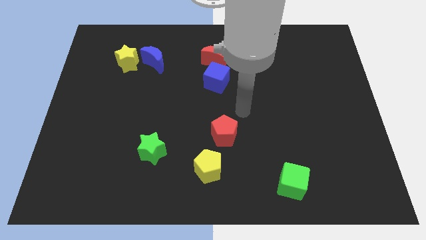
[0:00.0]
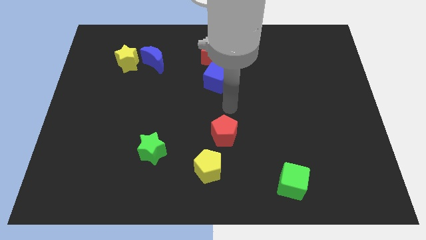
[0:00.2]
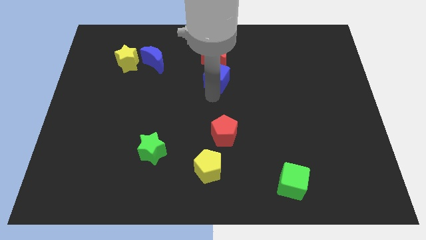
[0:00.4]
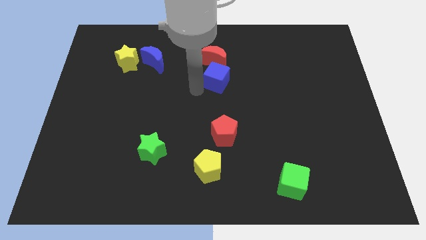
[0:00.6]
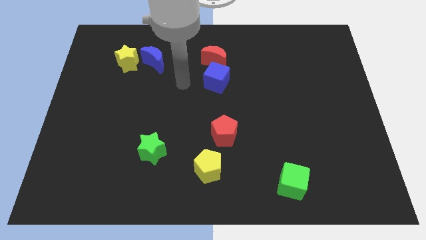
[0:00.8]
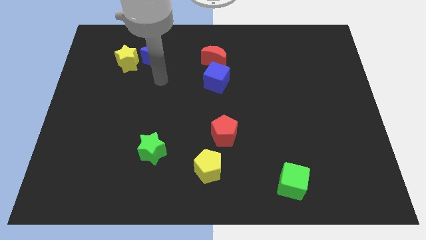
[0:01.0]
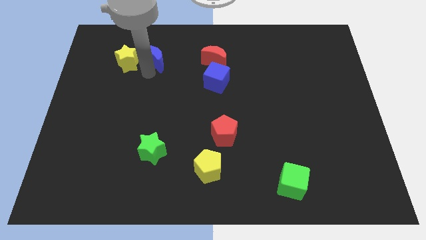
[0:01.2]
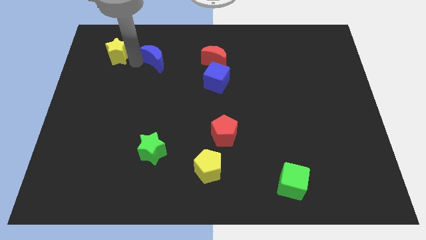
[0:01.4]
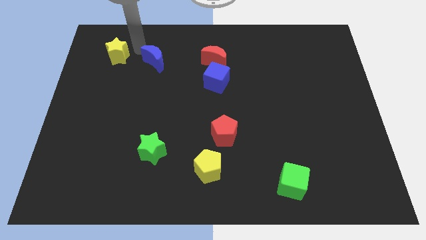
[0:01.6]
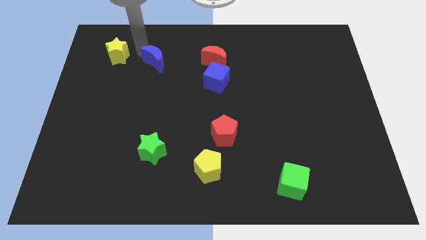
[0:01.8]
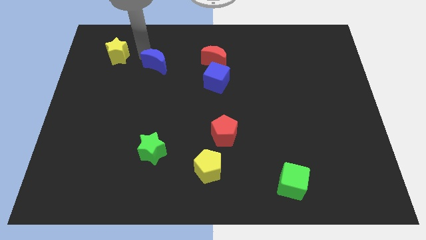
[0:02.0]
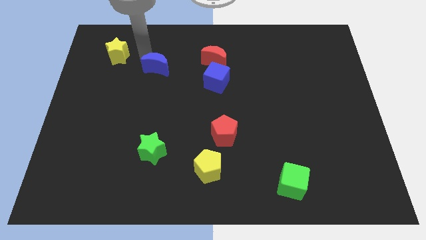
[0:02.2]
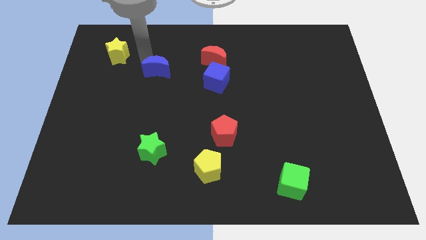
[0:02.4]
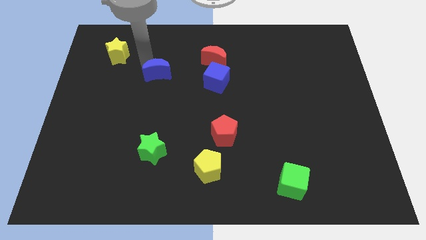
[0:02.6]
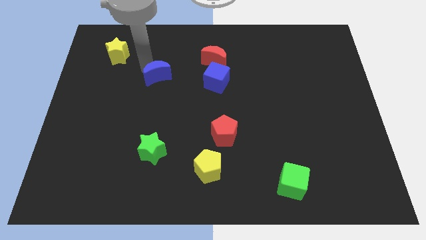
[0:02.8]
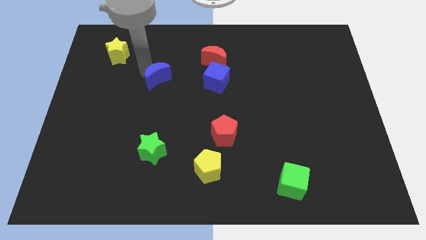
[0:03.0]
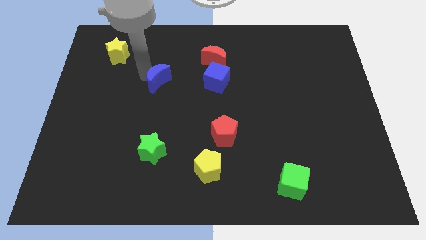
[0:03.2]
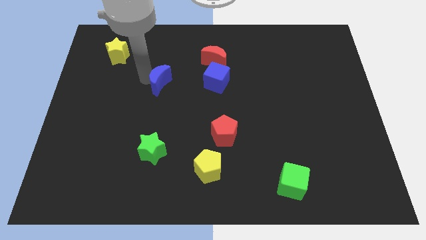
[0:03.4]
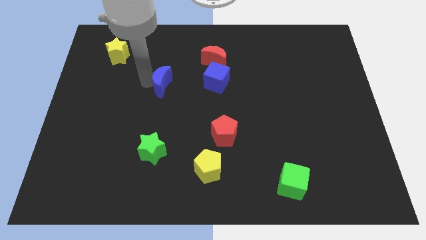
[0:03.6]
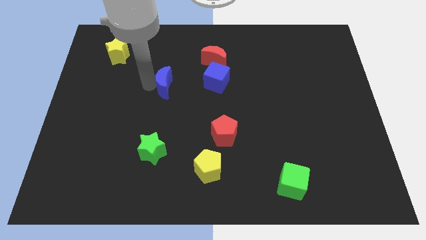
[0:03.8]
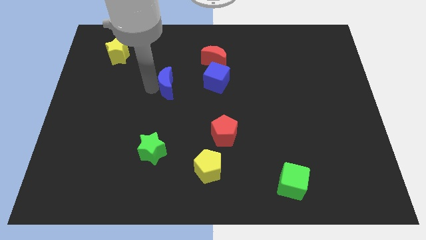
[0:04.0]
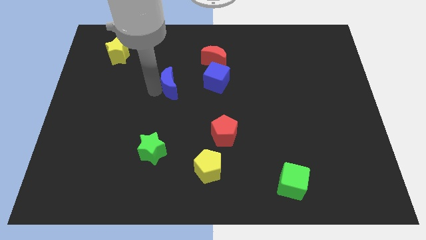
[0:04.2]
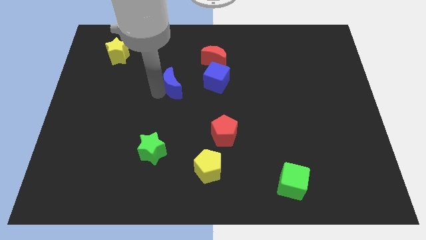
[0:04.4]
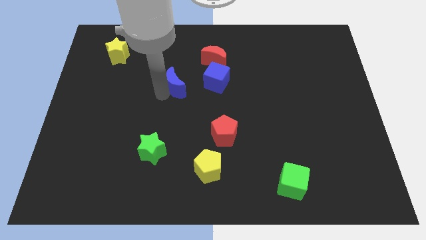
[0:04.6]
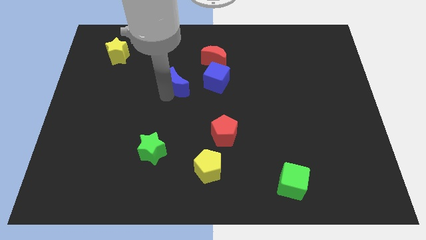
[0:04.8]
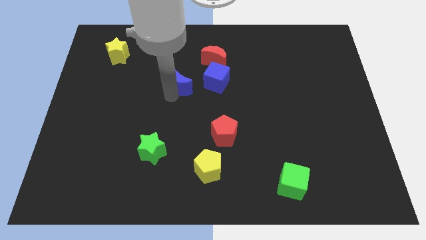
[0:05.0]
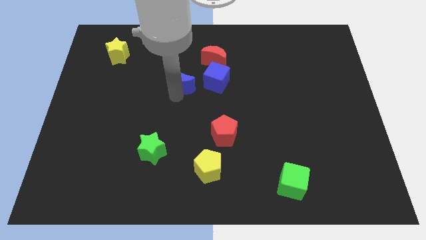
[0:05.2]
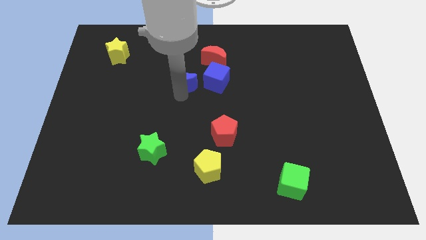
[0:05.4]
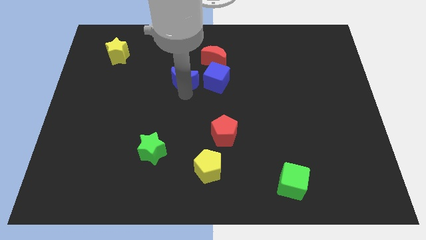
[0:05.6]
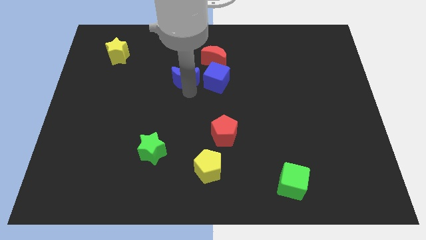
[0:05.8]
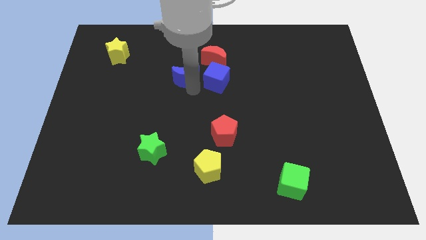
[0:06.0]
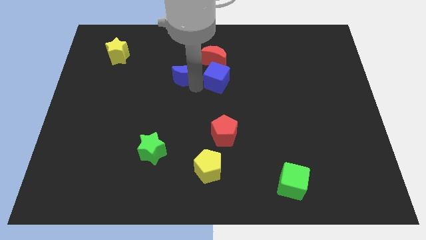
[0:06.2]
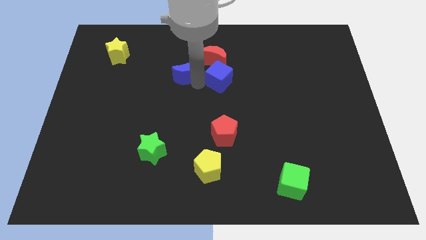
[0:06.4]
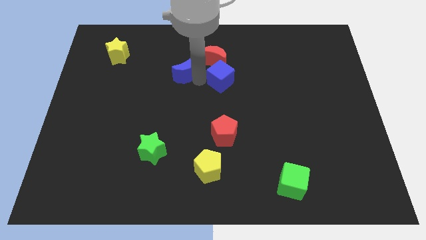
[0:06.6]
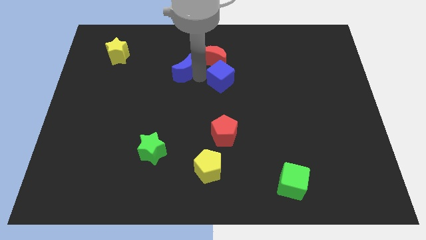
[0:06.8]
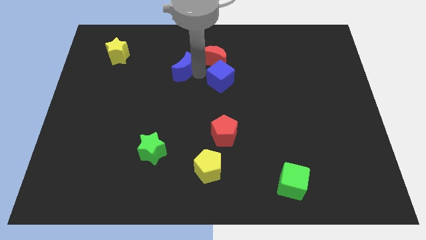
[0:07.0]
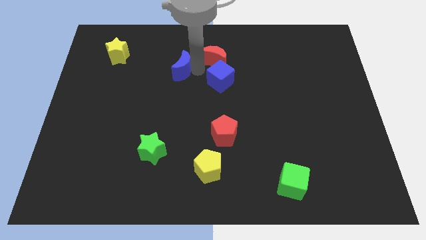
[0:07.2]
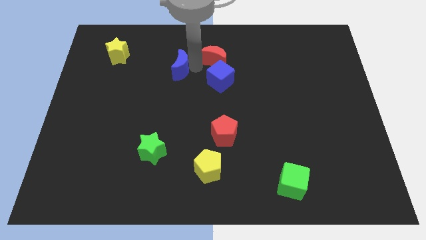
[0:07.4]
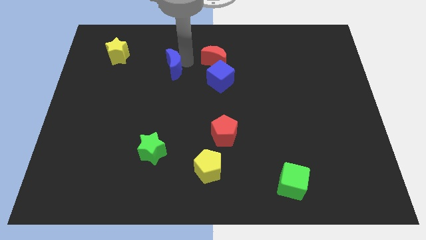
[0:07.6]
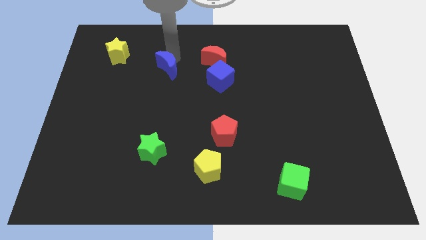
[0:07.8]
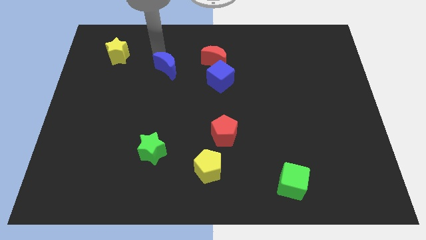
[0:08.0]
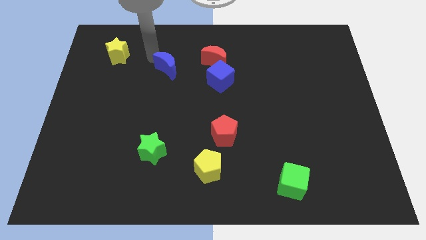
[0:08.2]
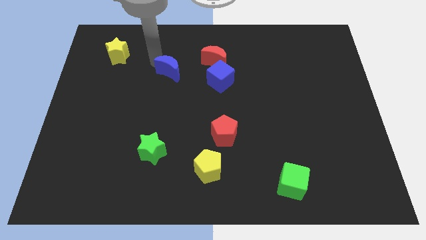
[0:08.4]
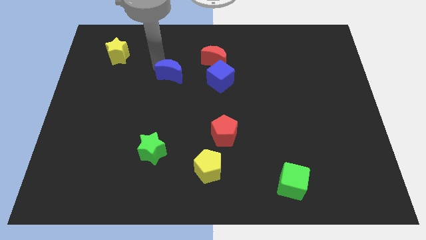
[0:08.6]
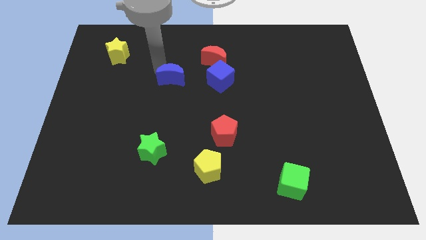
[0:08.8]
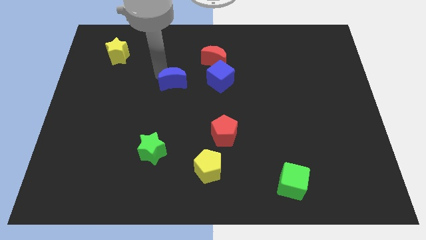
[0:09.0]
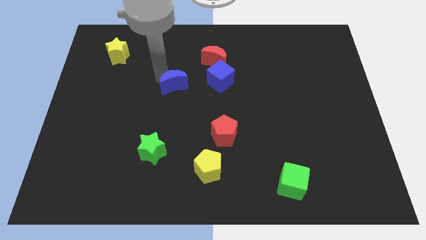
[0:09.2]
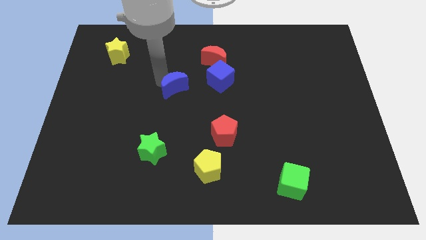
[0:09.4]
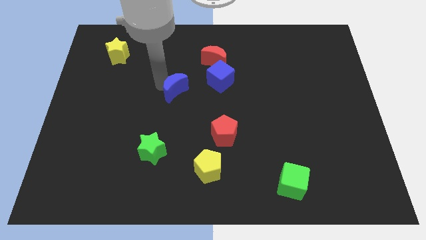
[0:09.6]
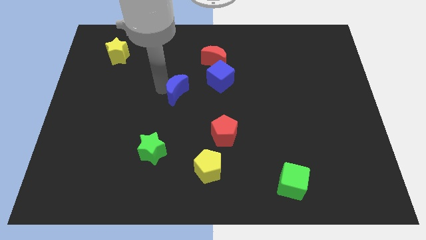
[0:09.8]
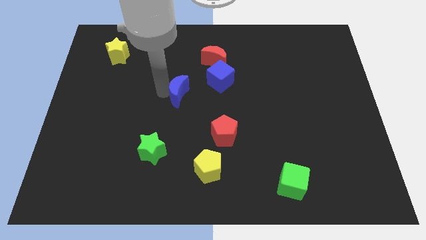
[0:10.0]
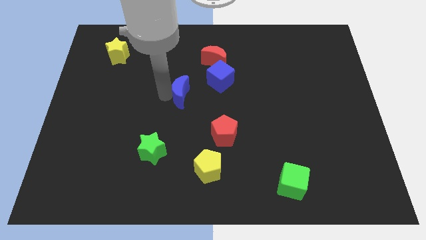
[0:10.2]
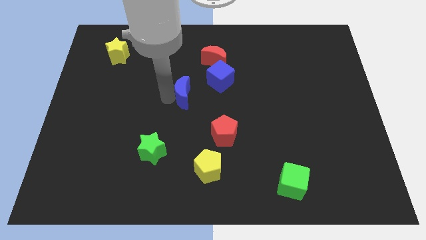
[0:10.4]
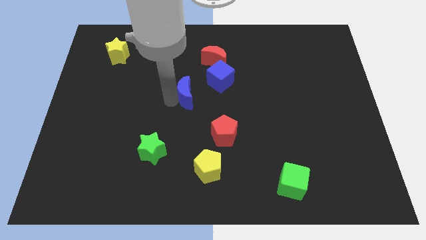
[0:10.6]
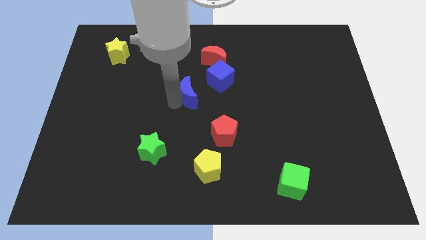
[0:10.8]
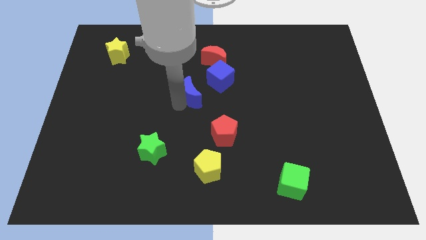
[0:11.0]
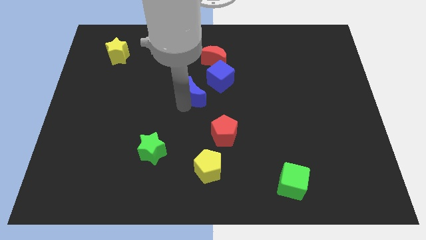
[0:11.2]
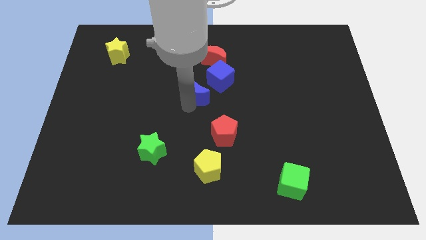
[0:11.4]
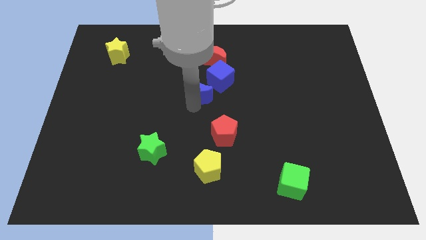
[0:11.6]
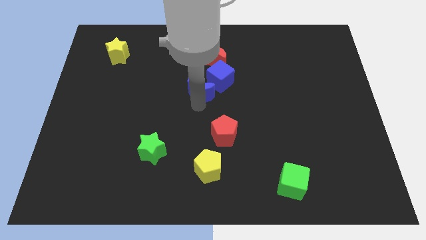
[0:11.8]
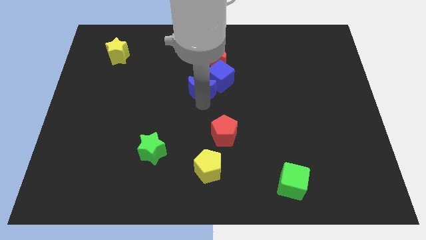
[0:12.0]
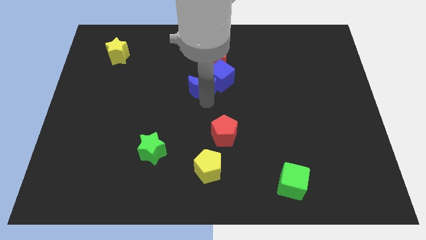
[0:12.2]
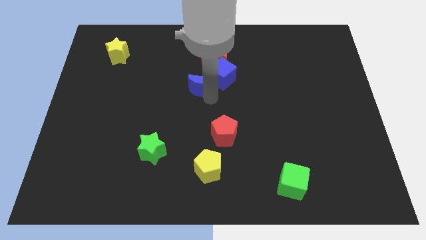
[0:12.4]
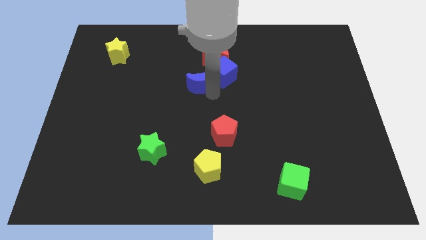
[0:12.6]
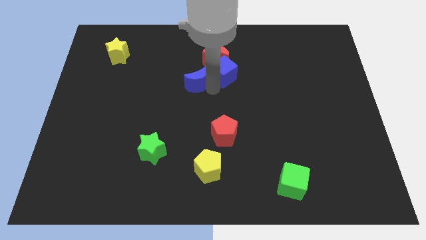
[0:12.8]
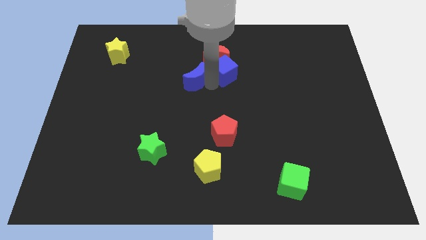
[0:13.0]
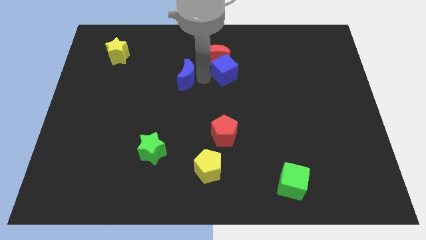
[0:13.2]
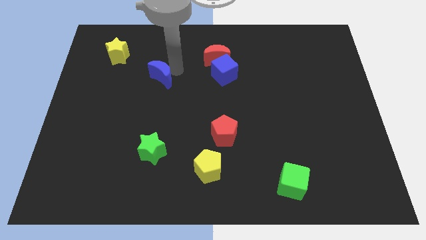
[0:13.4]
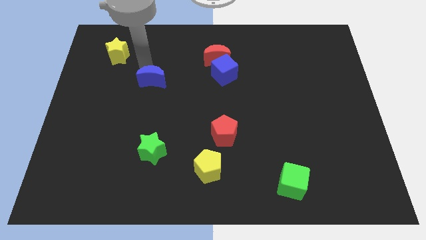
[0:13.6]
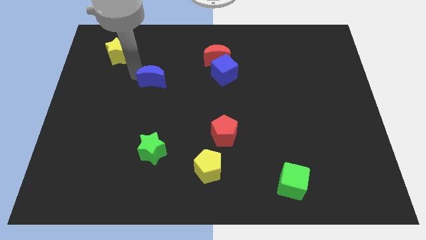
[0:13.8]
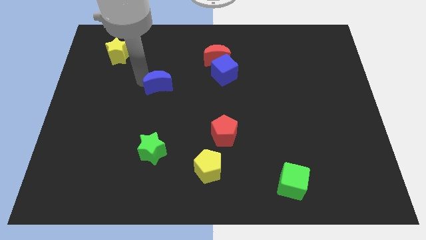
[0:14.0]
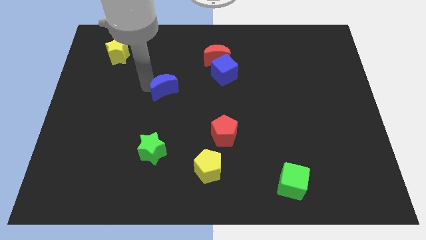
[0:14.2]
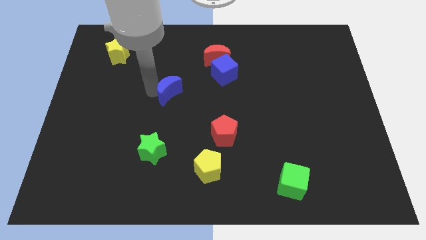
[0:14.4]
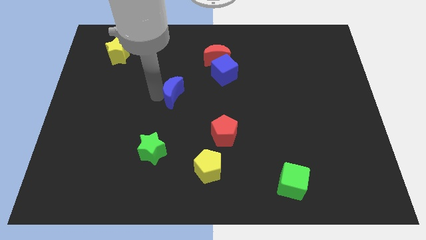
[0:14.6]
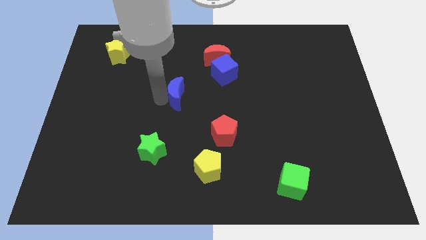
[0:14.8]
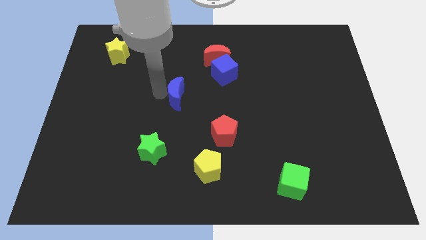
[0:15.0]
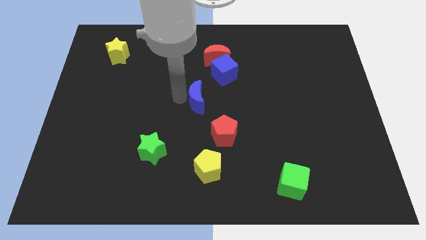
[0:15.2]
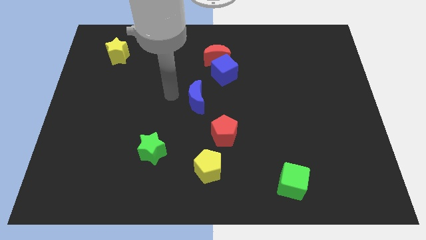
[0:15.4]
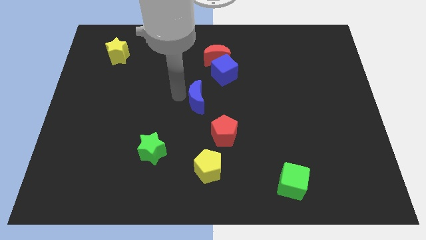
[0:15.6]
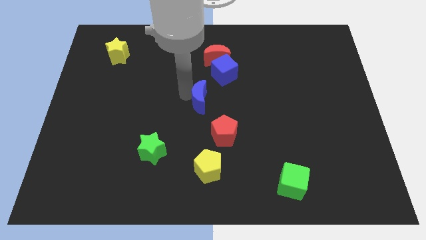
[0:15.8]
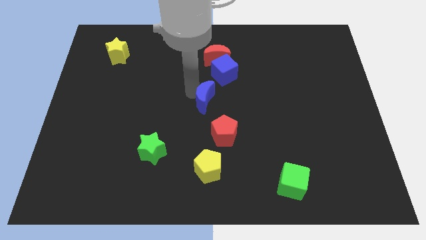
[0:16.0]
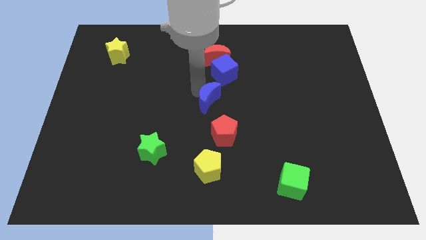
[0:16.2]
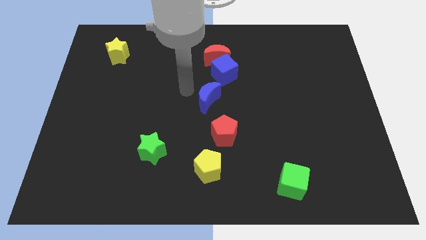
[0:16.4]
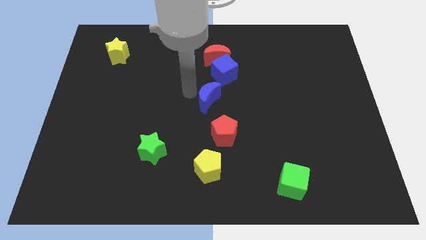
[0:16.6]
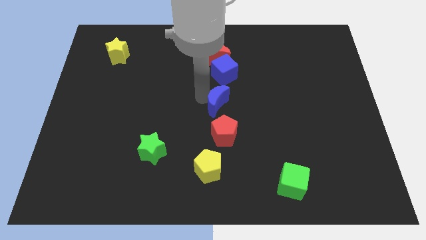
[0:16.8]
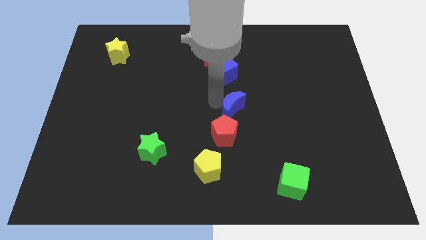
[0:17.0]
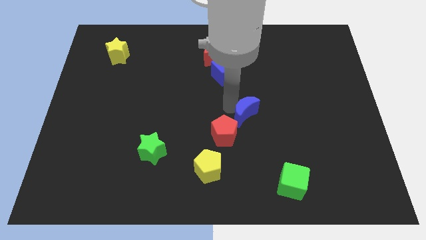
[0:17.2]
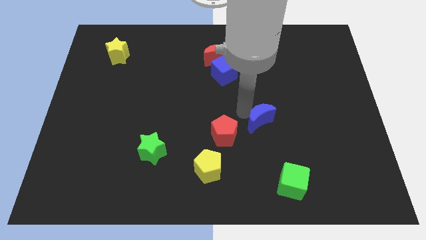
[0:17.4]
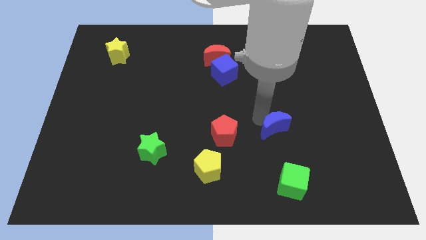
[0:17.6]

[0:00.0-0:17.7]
push the blue moon to the top side of the green cube
